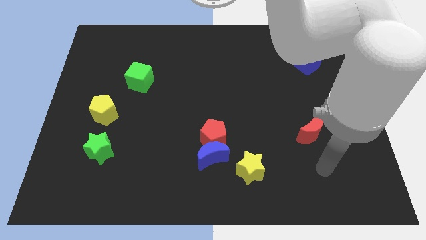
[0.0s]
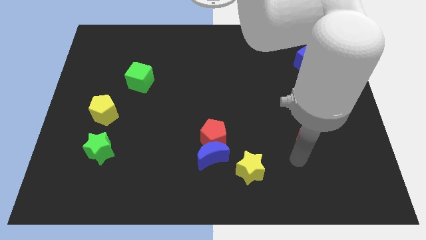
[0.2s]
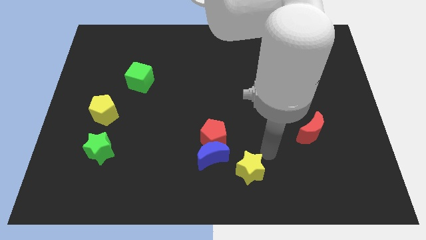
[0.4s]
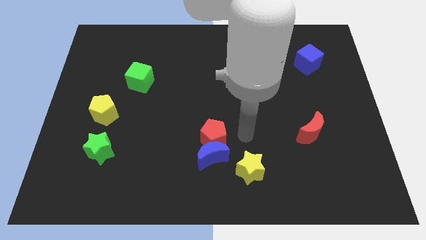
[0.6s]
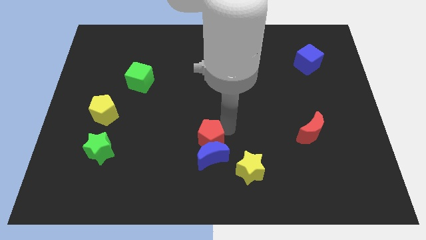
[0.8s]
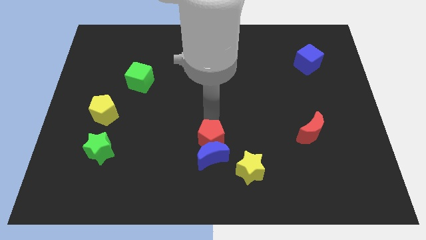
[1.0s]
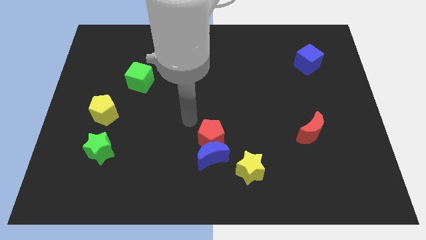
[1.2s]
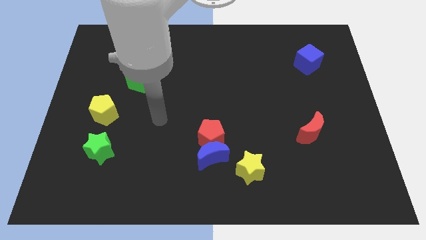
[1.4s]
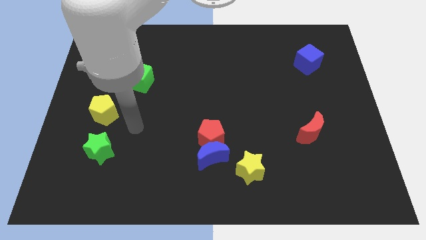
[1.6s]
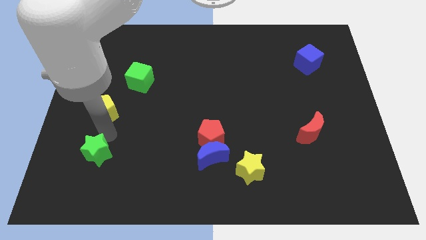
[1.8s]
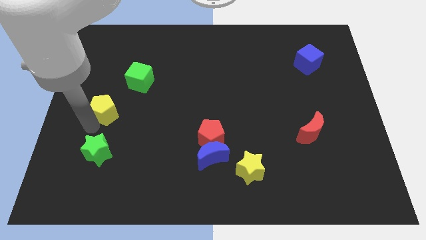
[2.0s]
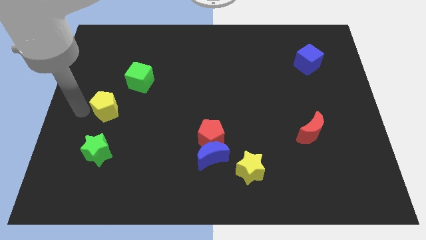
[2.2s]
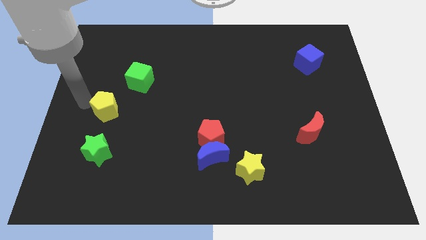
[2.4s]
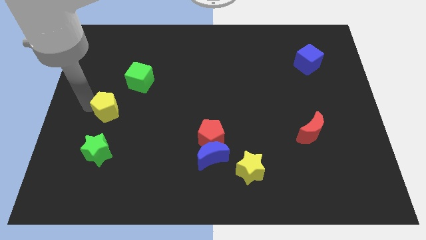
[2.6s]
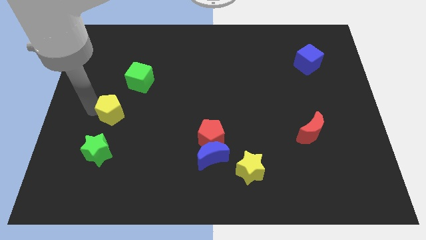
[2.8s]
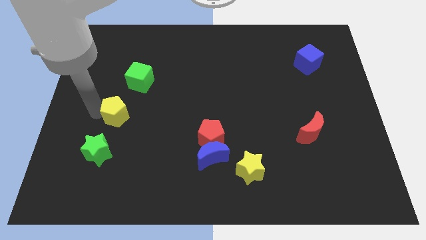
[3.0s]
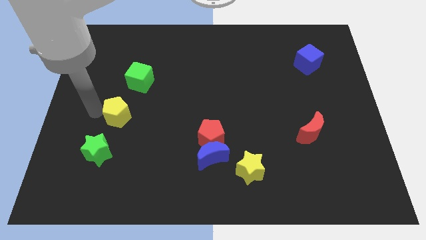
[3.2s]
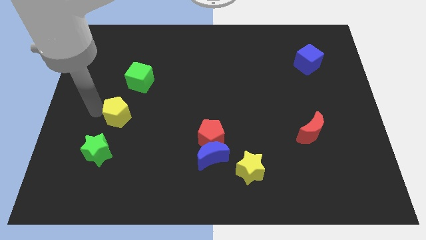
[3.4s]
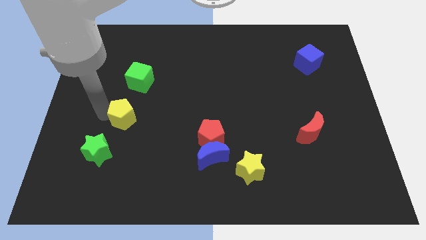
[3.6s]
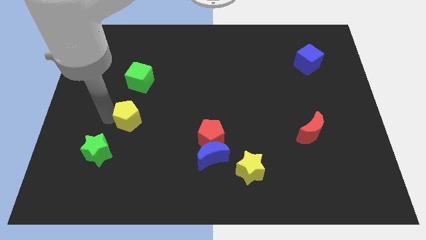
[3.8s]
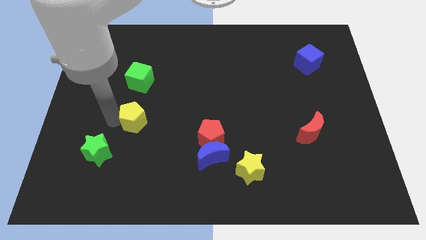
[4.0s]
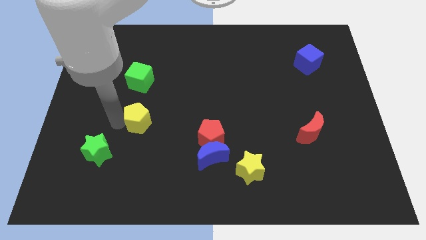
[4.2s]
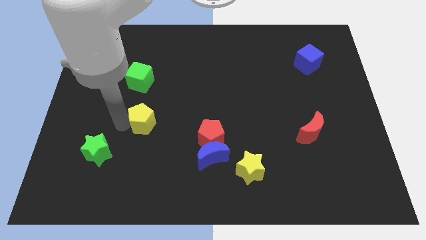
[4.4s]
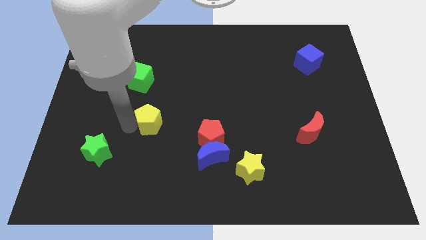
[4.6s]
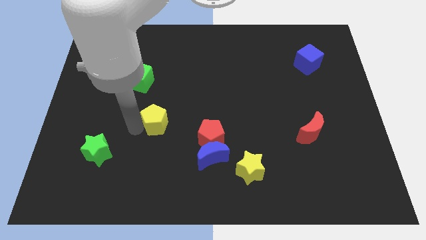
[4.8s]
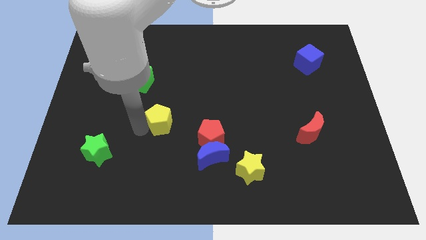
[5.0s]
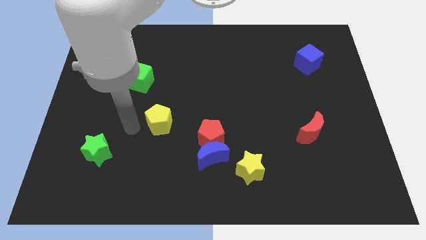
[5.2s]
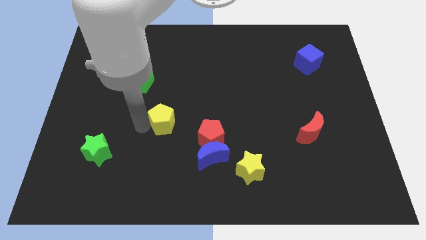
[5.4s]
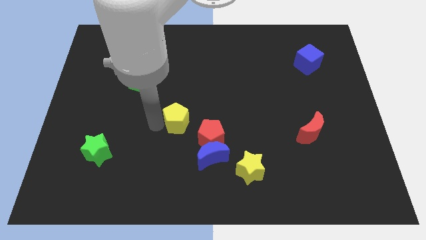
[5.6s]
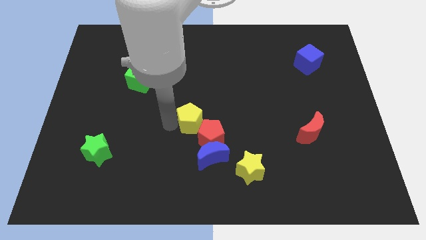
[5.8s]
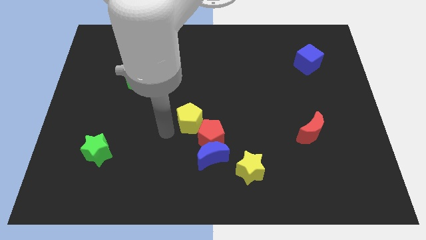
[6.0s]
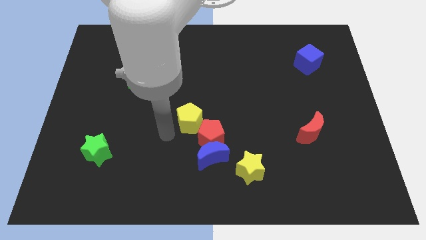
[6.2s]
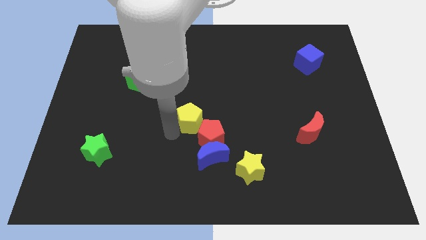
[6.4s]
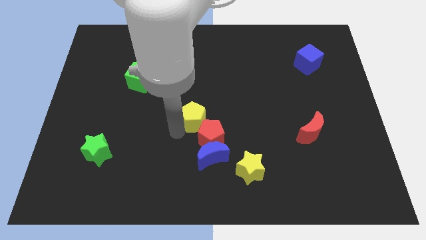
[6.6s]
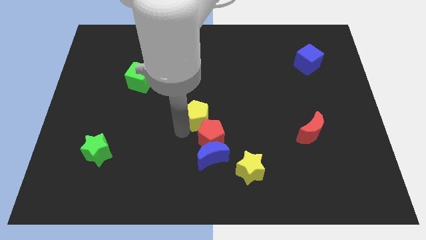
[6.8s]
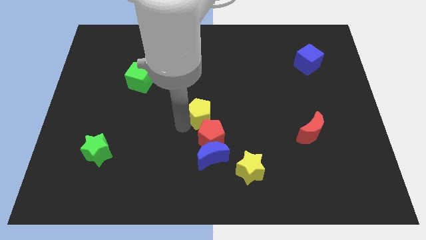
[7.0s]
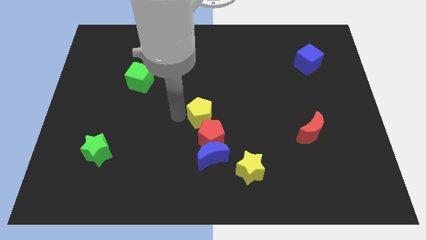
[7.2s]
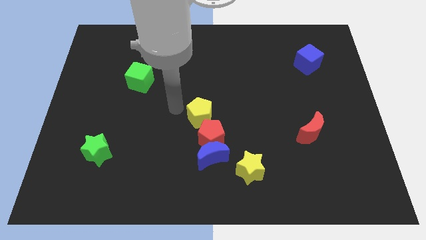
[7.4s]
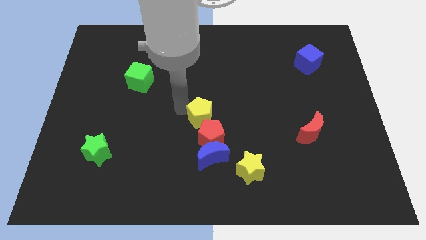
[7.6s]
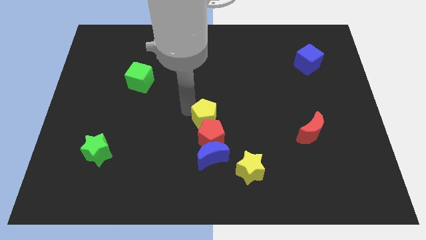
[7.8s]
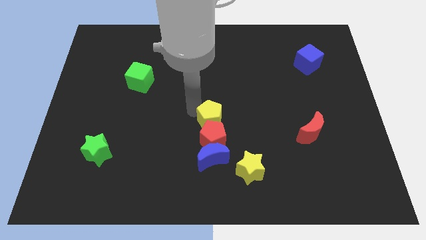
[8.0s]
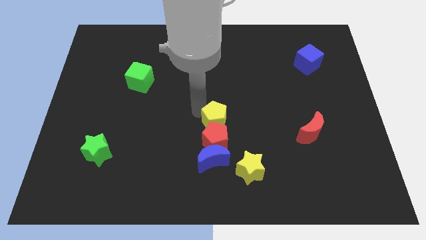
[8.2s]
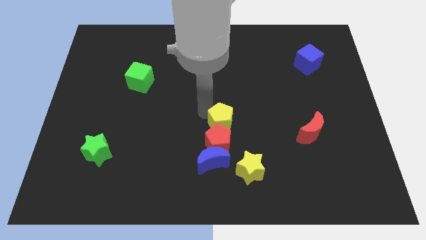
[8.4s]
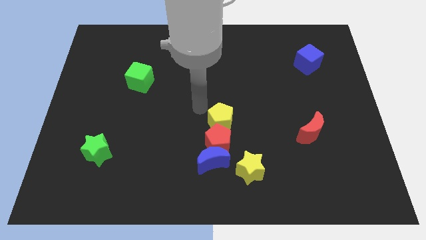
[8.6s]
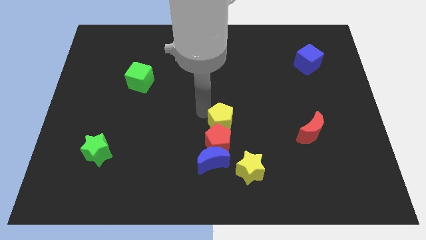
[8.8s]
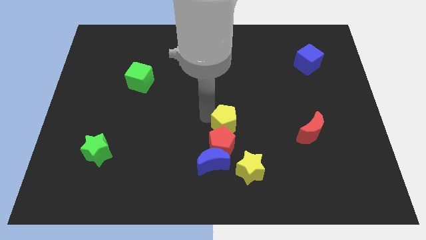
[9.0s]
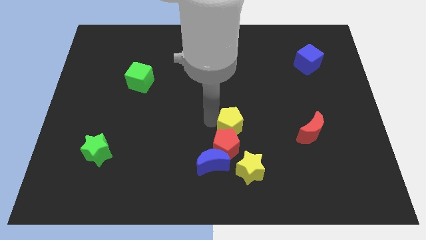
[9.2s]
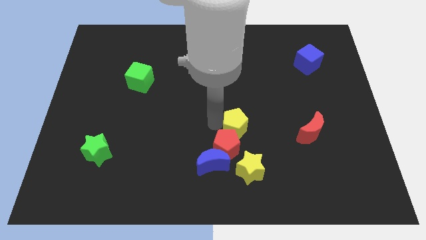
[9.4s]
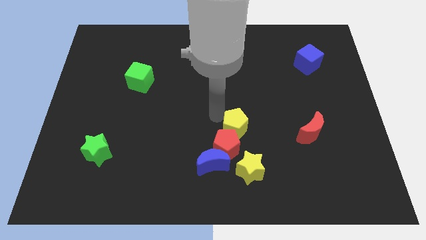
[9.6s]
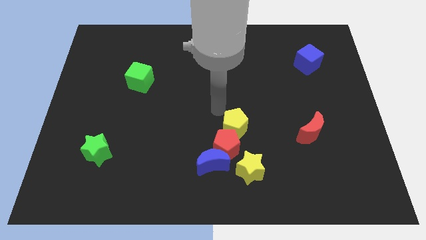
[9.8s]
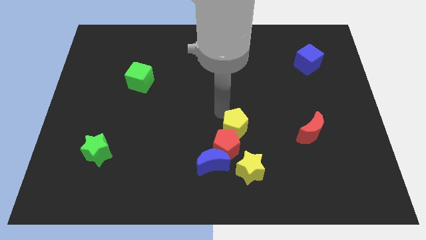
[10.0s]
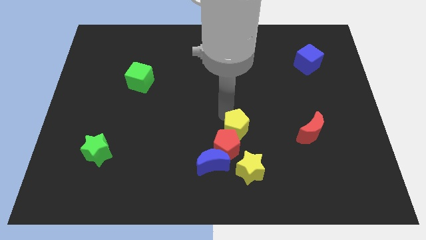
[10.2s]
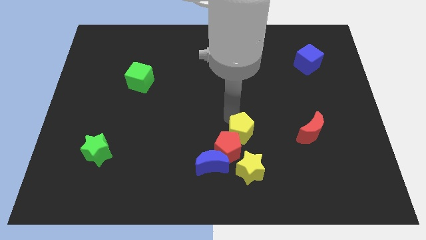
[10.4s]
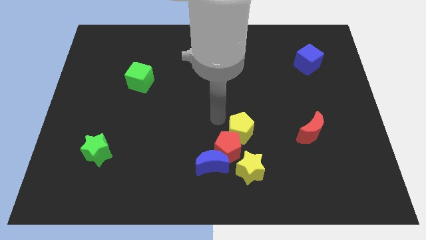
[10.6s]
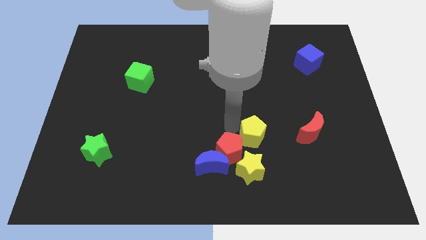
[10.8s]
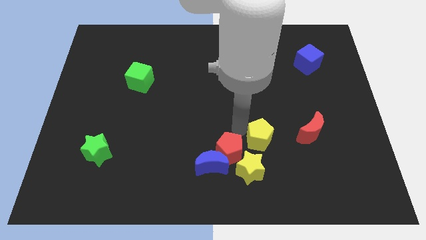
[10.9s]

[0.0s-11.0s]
move the yellow pentagon to the top right of the yellow star
